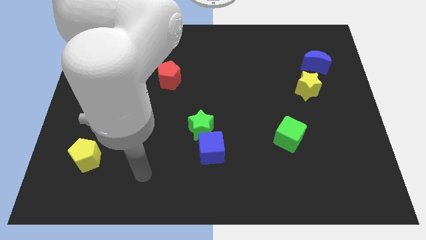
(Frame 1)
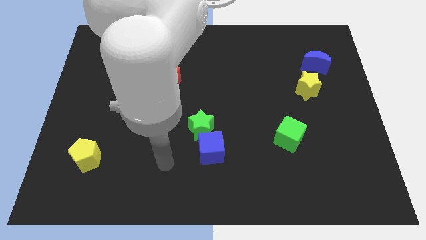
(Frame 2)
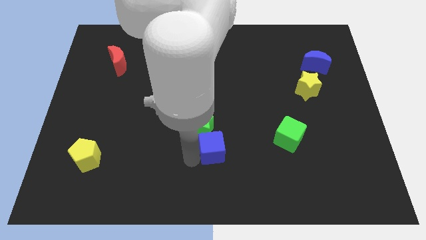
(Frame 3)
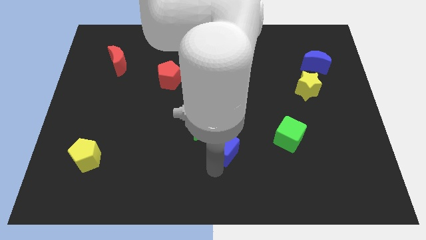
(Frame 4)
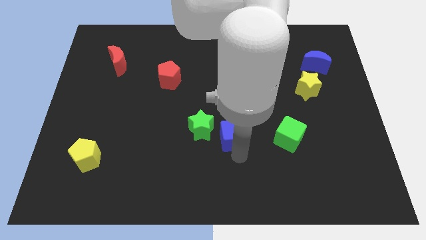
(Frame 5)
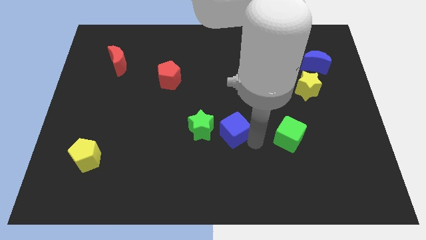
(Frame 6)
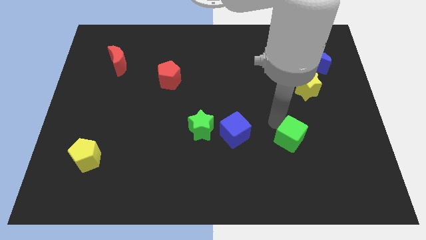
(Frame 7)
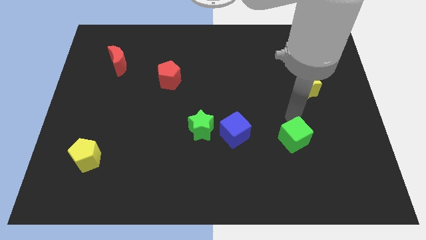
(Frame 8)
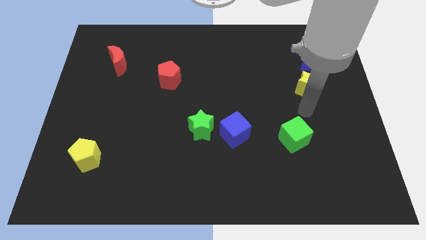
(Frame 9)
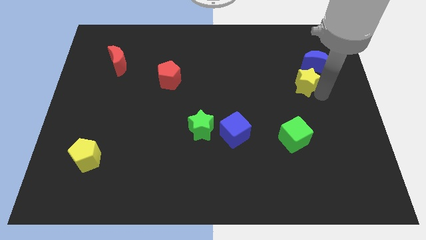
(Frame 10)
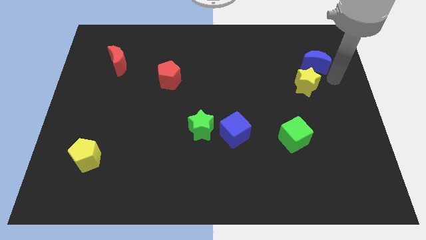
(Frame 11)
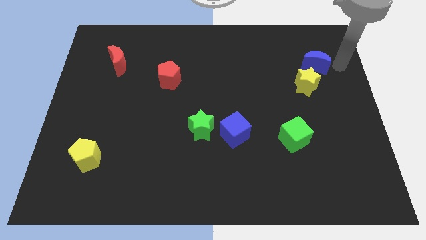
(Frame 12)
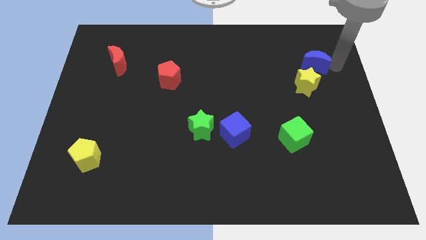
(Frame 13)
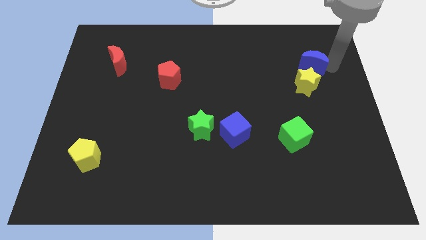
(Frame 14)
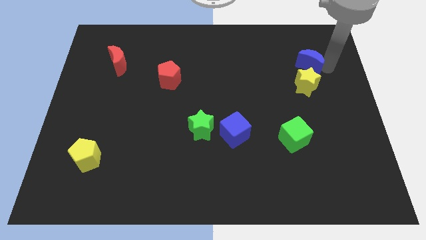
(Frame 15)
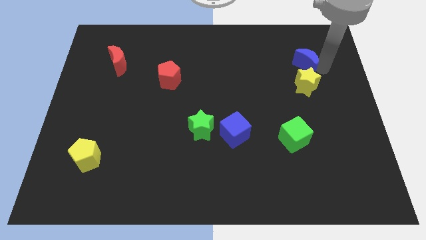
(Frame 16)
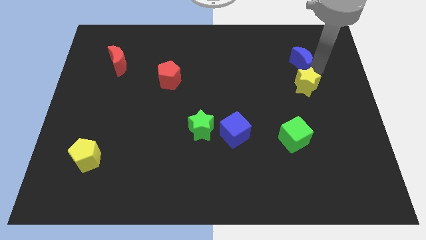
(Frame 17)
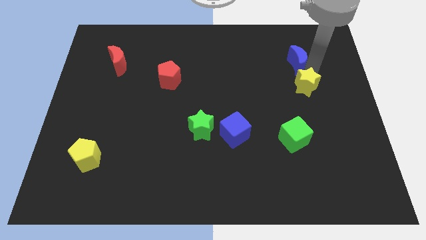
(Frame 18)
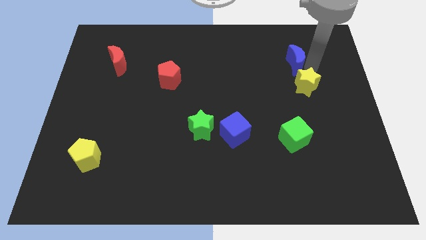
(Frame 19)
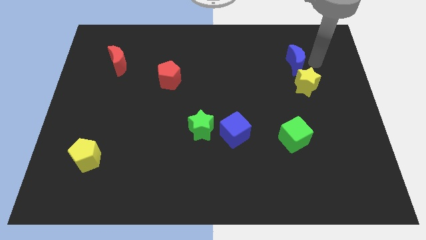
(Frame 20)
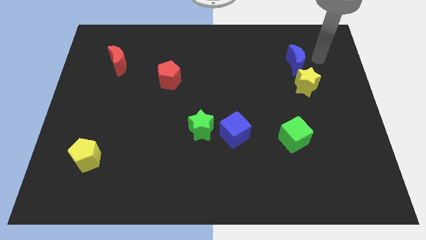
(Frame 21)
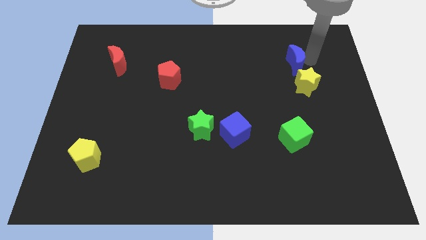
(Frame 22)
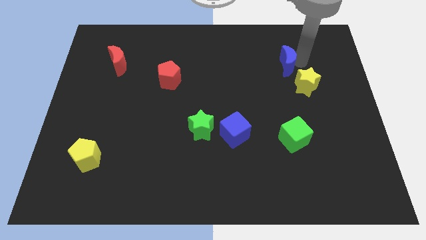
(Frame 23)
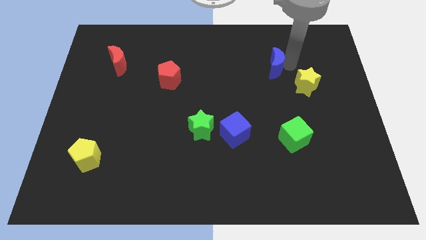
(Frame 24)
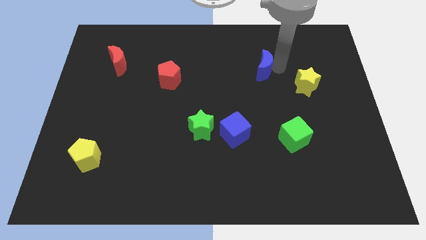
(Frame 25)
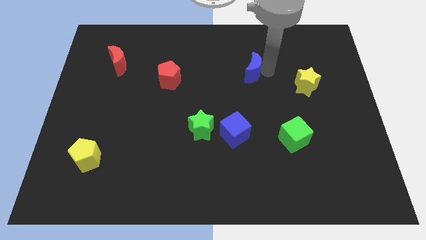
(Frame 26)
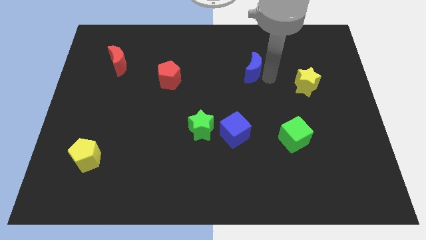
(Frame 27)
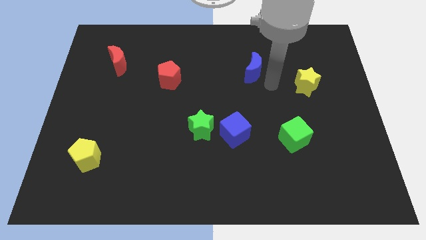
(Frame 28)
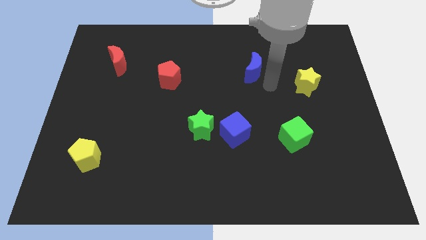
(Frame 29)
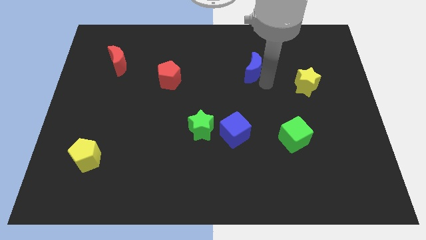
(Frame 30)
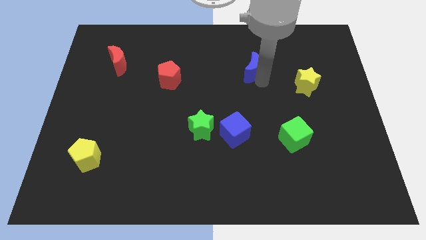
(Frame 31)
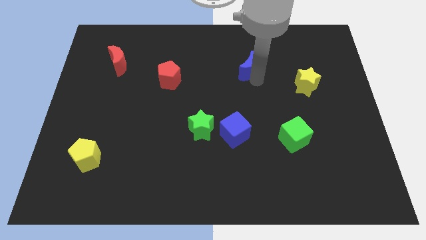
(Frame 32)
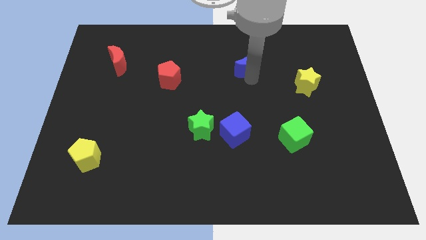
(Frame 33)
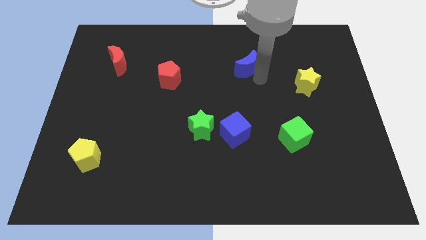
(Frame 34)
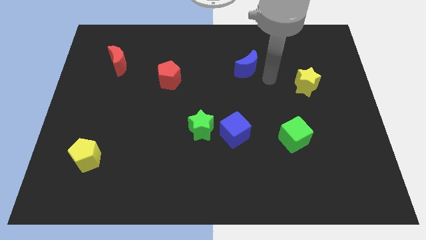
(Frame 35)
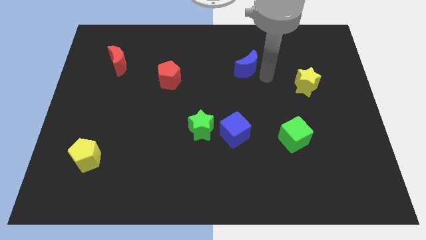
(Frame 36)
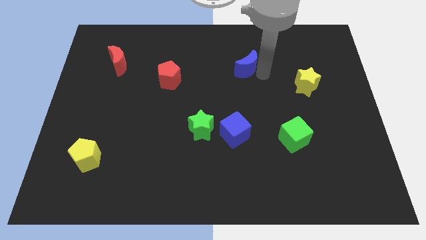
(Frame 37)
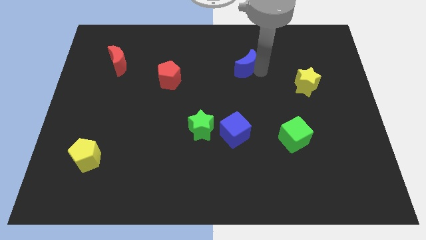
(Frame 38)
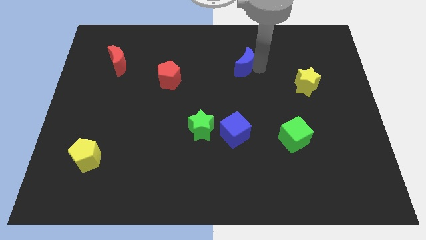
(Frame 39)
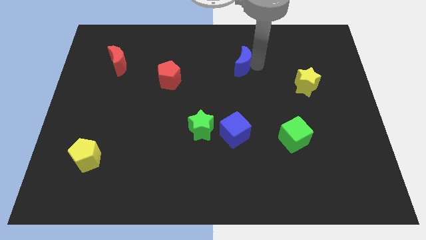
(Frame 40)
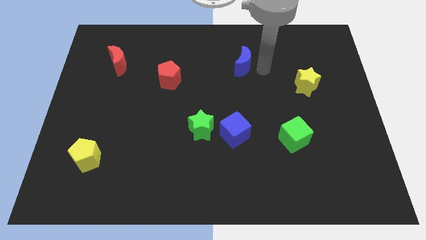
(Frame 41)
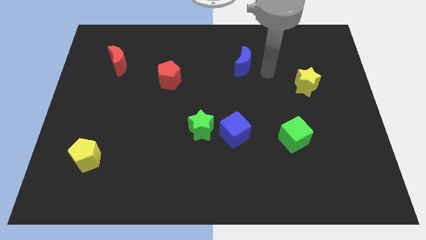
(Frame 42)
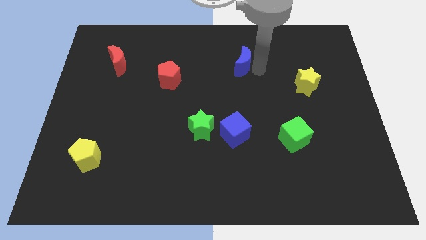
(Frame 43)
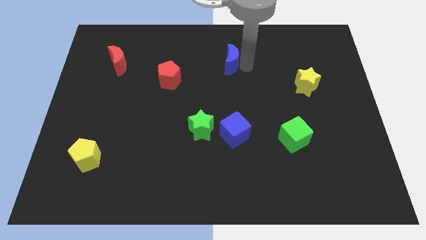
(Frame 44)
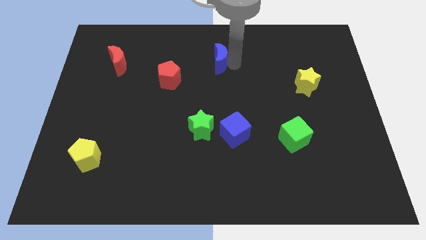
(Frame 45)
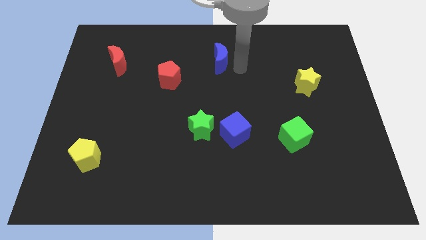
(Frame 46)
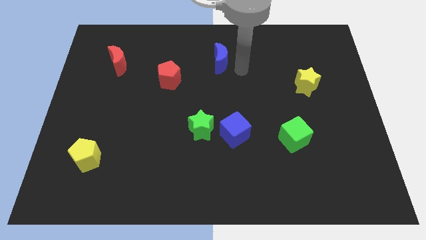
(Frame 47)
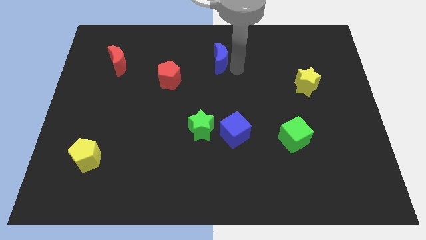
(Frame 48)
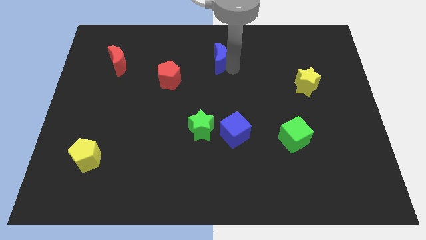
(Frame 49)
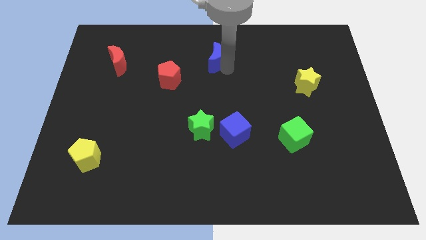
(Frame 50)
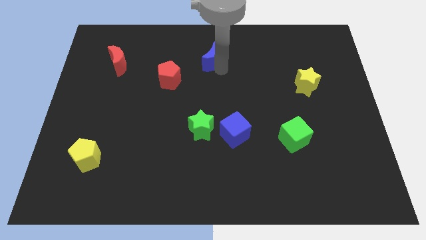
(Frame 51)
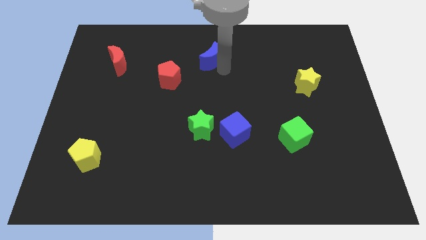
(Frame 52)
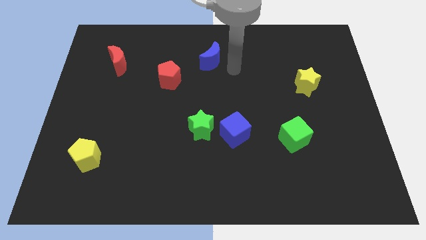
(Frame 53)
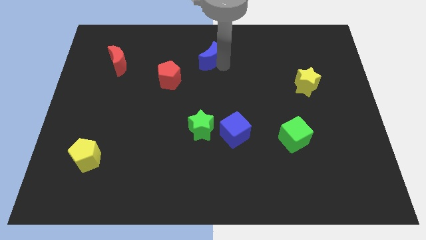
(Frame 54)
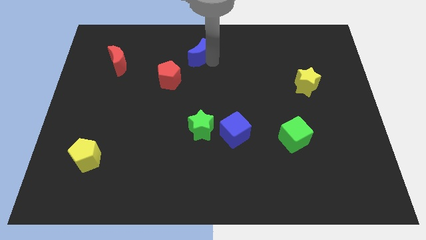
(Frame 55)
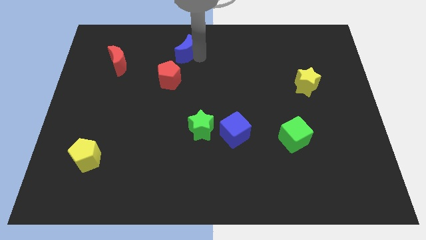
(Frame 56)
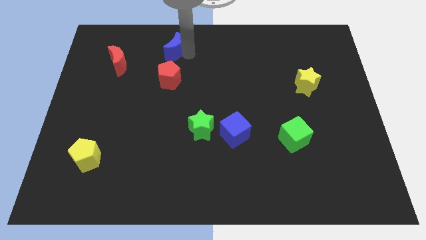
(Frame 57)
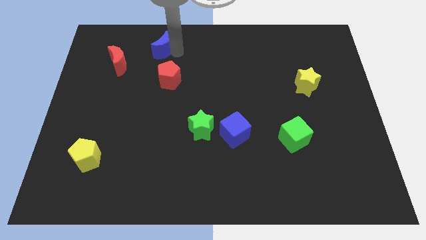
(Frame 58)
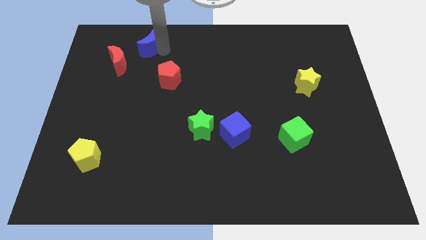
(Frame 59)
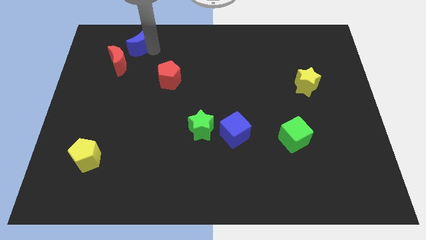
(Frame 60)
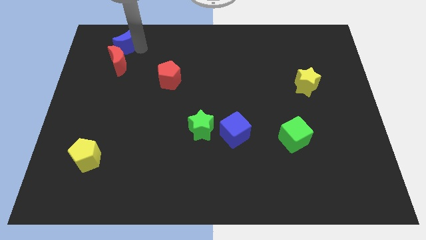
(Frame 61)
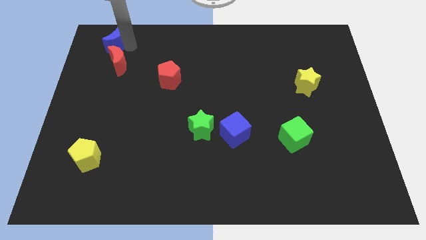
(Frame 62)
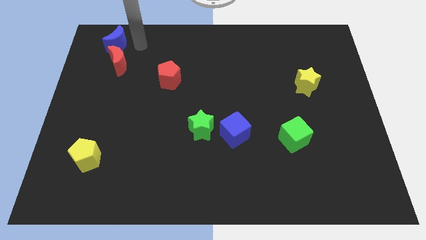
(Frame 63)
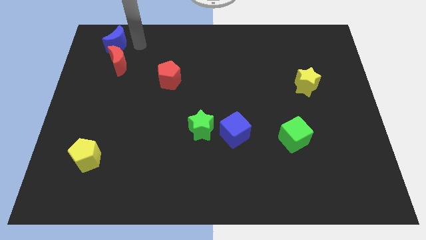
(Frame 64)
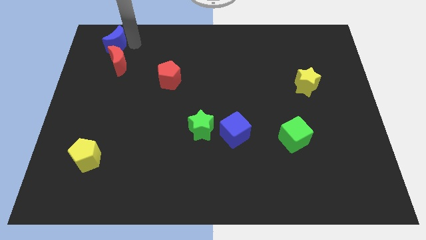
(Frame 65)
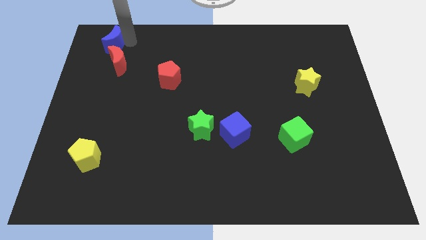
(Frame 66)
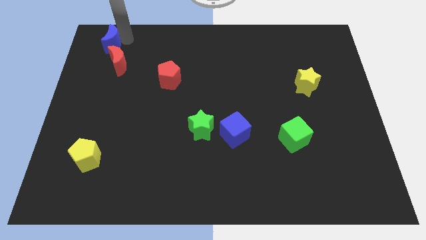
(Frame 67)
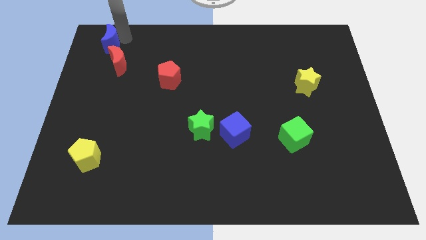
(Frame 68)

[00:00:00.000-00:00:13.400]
push the blue moon to the top left corner

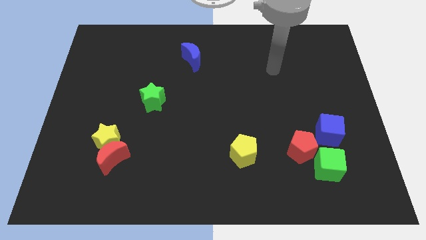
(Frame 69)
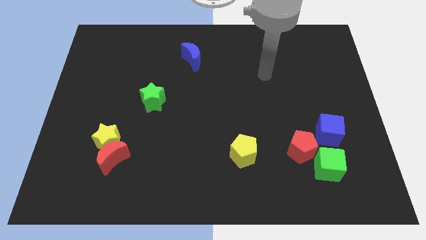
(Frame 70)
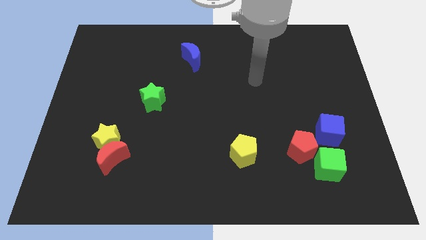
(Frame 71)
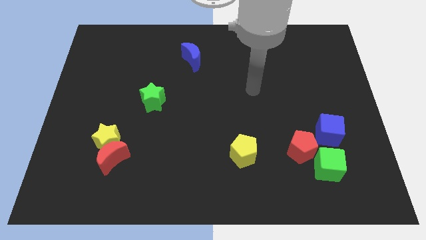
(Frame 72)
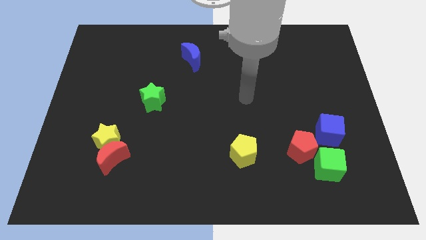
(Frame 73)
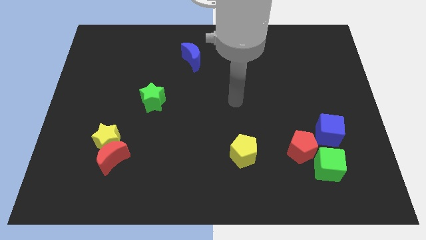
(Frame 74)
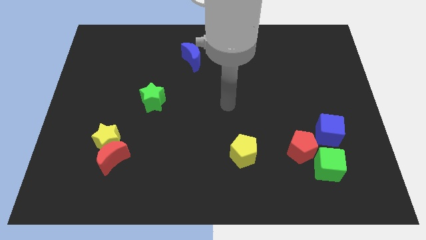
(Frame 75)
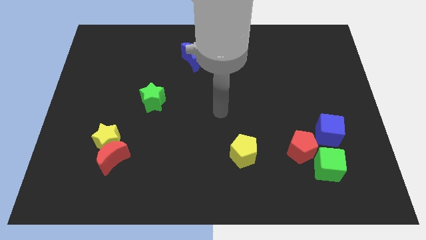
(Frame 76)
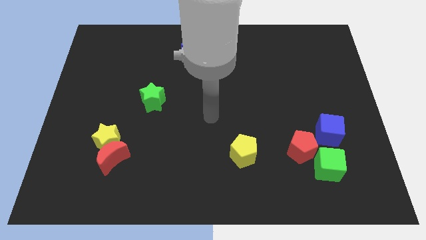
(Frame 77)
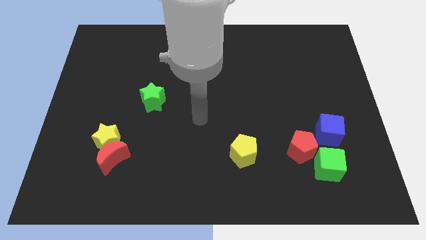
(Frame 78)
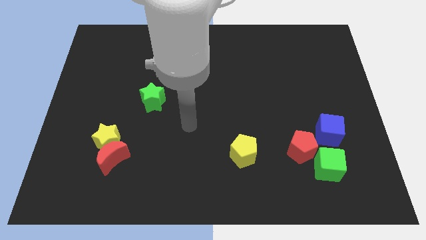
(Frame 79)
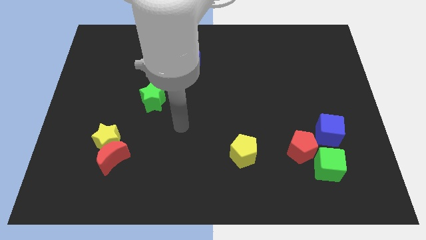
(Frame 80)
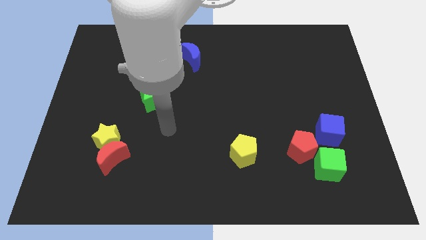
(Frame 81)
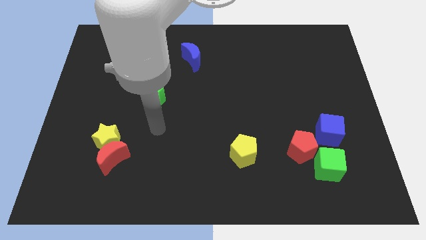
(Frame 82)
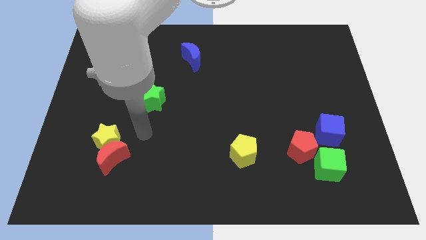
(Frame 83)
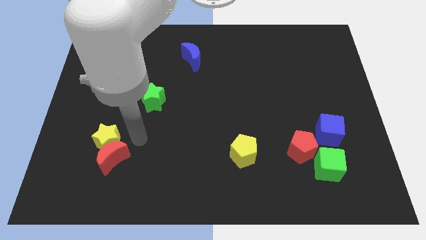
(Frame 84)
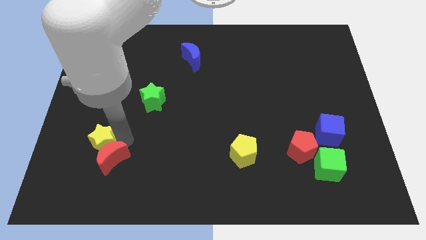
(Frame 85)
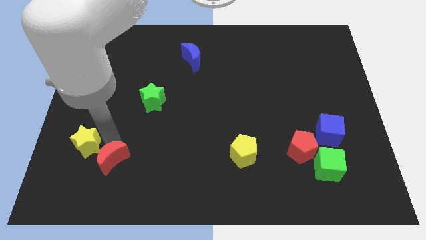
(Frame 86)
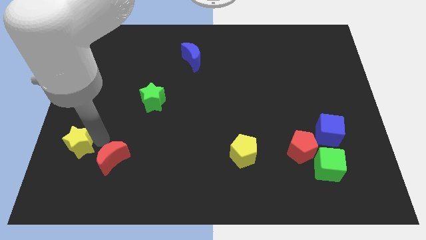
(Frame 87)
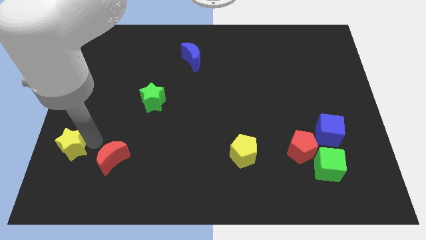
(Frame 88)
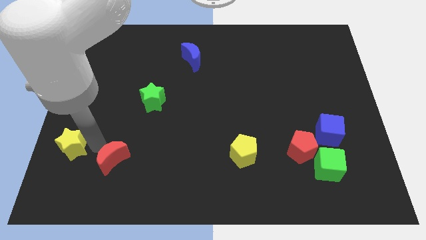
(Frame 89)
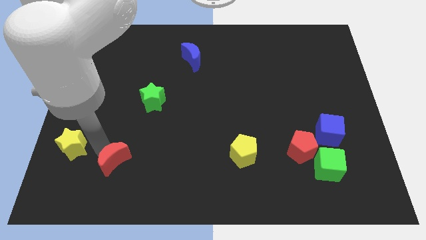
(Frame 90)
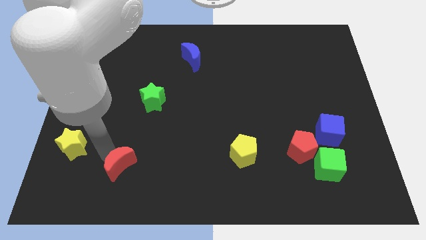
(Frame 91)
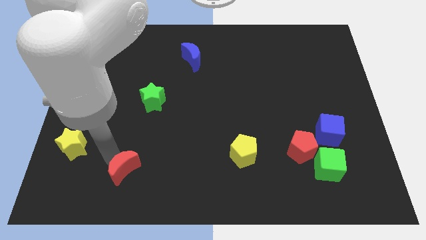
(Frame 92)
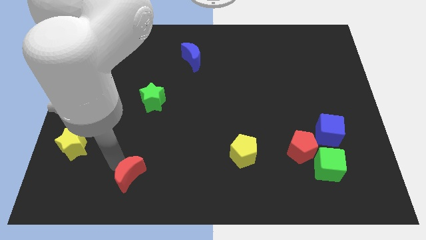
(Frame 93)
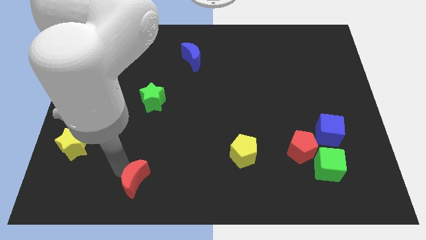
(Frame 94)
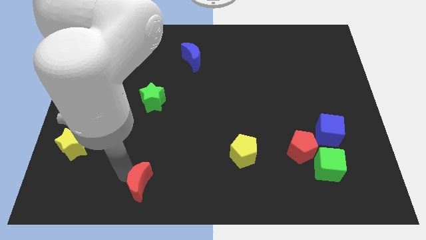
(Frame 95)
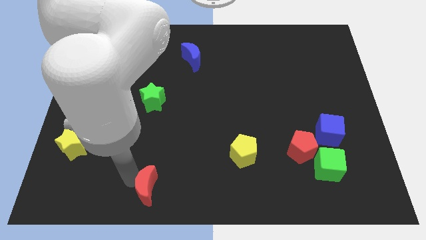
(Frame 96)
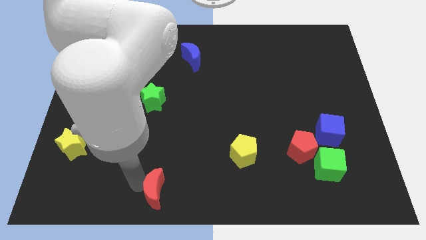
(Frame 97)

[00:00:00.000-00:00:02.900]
push the red moon to the bottom side
